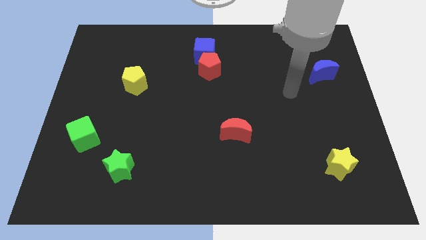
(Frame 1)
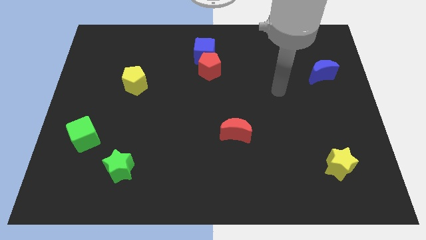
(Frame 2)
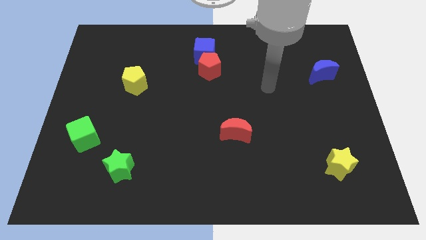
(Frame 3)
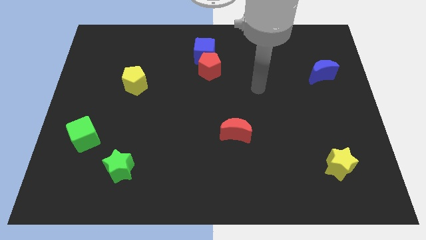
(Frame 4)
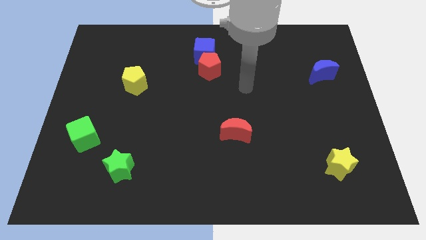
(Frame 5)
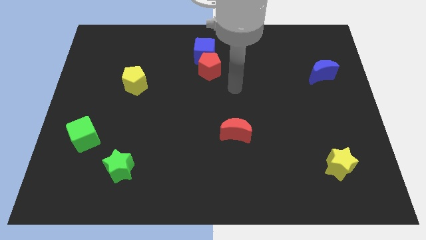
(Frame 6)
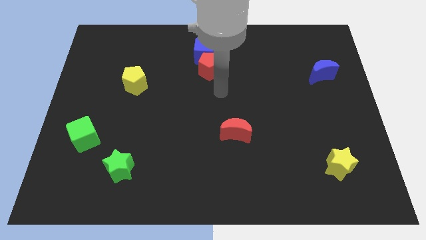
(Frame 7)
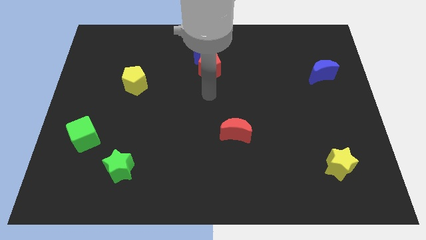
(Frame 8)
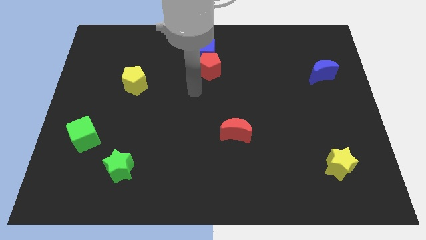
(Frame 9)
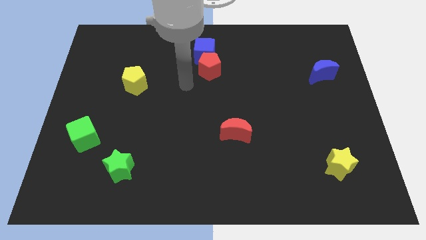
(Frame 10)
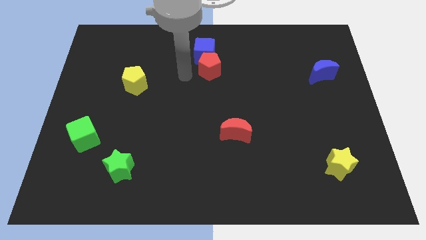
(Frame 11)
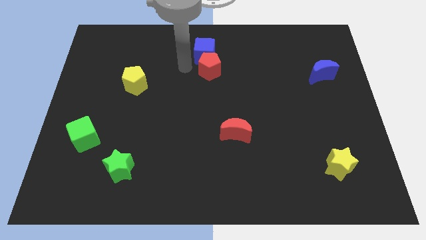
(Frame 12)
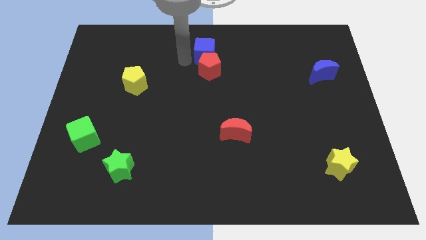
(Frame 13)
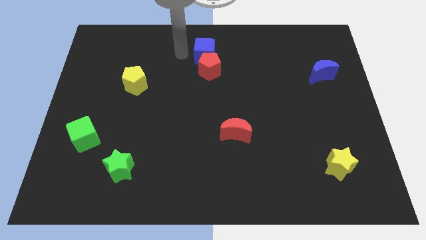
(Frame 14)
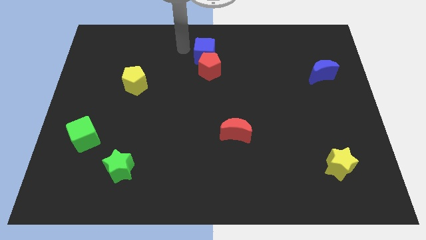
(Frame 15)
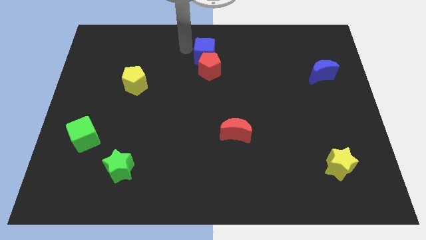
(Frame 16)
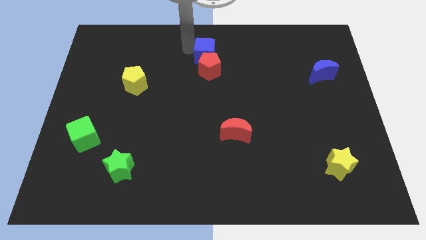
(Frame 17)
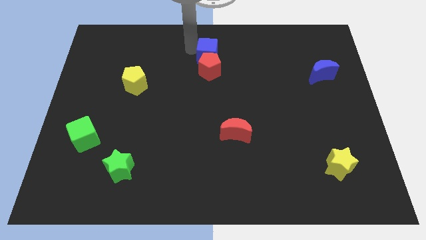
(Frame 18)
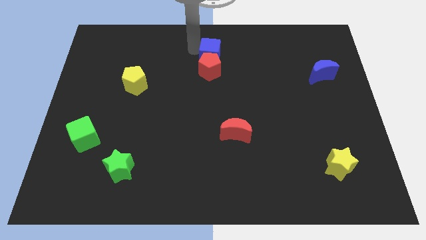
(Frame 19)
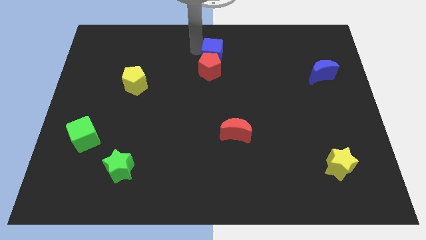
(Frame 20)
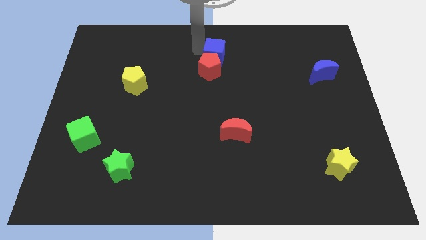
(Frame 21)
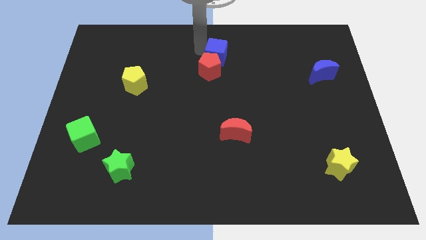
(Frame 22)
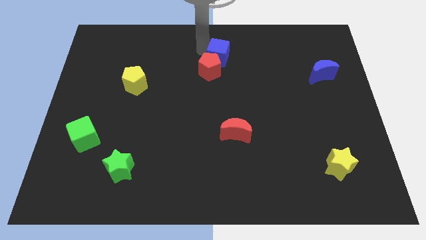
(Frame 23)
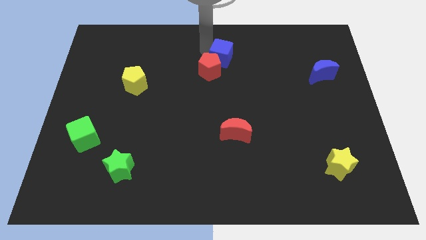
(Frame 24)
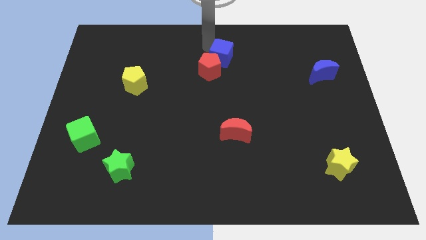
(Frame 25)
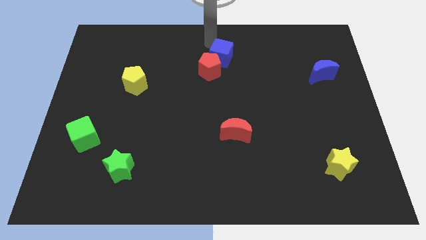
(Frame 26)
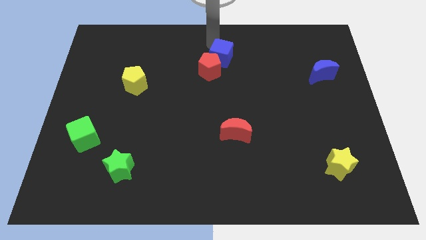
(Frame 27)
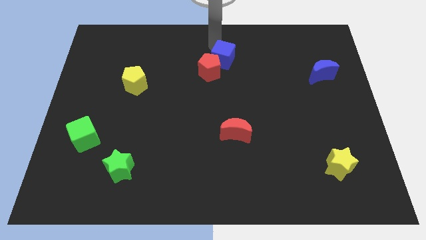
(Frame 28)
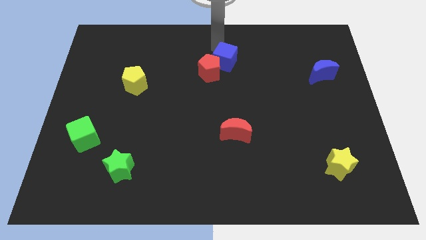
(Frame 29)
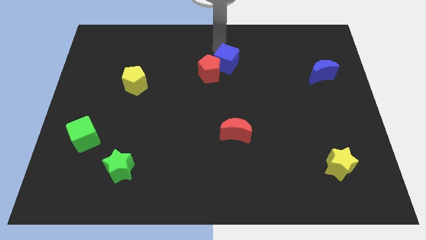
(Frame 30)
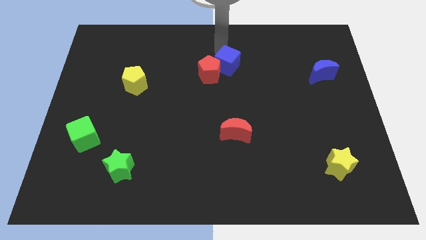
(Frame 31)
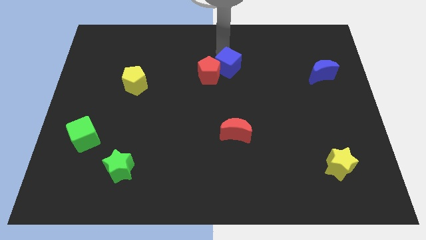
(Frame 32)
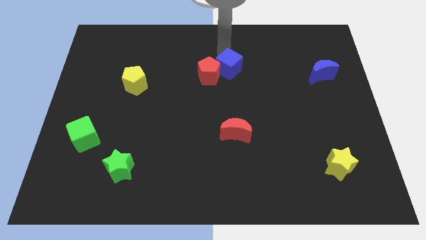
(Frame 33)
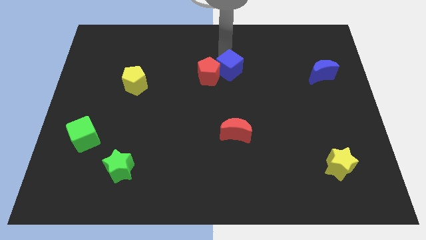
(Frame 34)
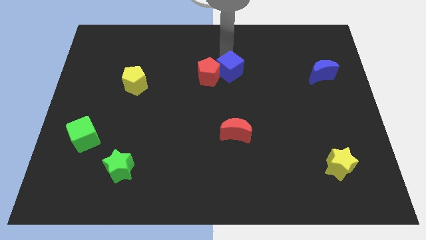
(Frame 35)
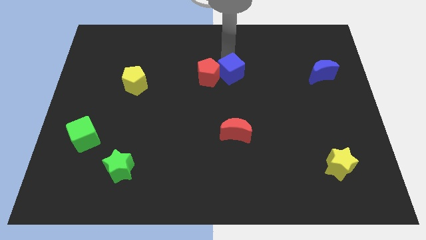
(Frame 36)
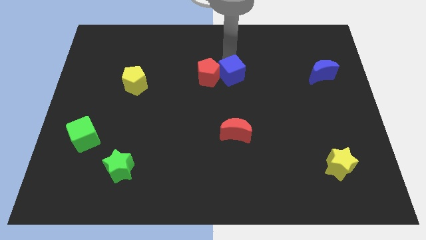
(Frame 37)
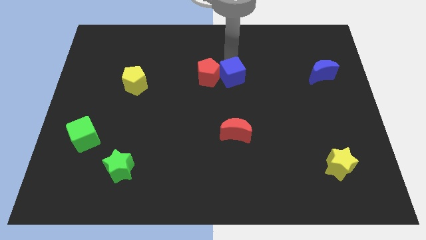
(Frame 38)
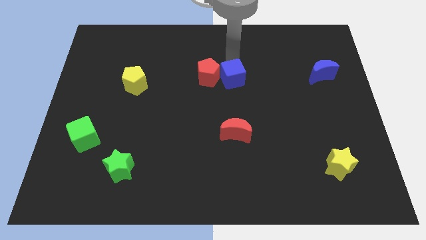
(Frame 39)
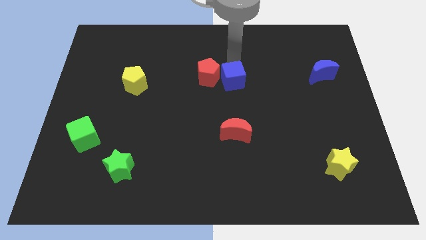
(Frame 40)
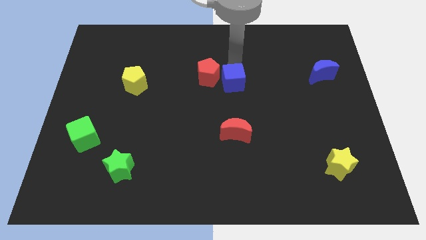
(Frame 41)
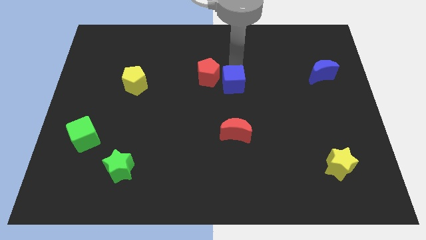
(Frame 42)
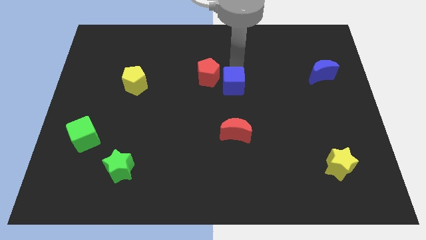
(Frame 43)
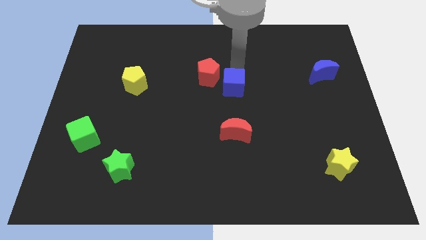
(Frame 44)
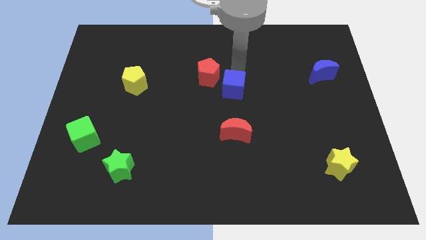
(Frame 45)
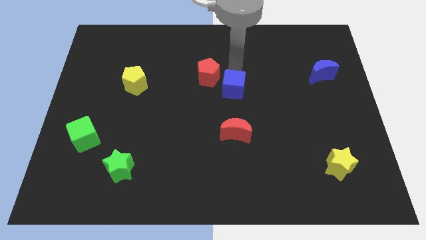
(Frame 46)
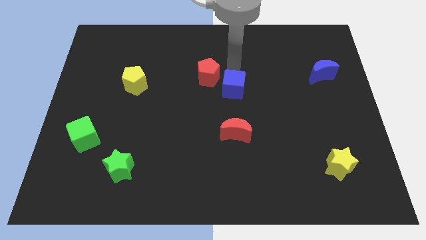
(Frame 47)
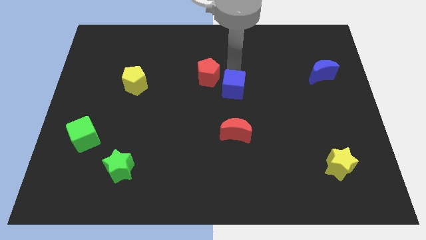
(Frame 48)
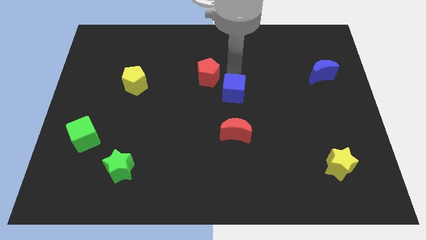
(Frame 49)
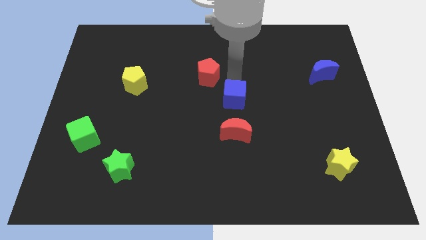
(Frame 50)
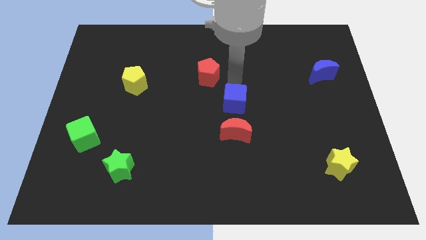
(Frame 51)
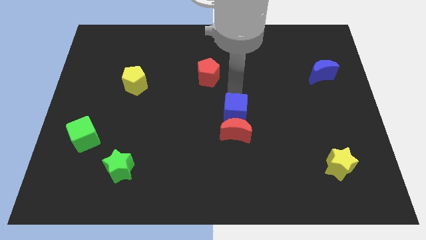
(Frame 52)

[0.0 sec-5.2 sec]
put the blue cube towards the red moon

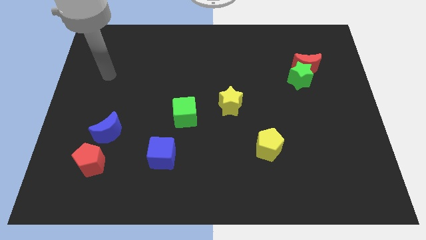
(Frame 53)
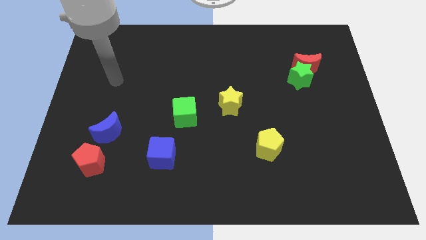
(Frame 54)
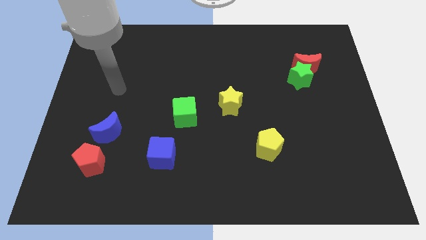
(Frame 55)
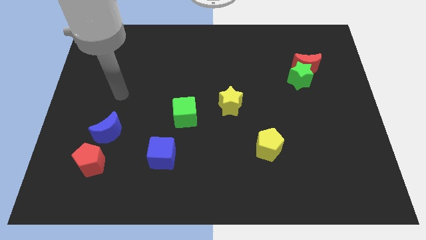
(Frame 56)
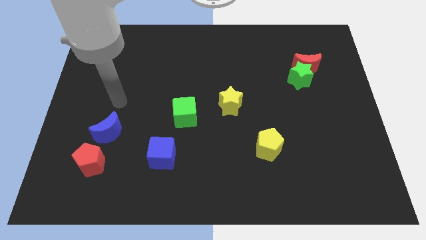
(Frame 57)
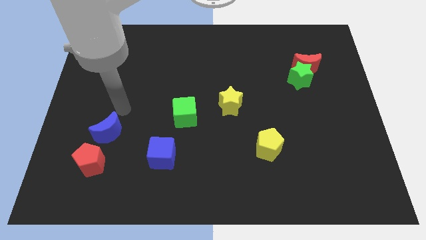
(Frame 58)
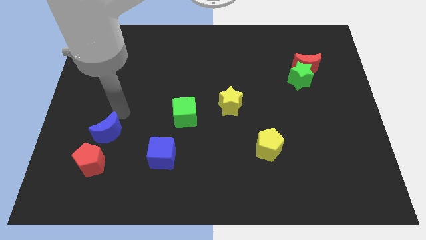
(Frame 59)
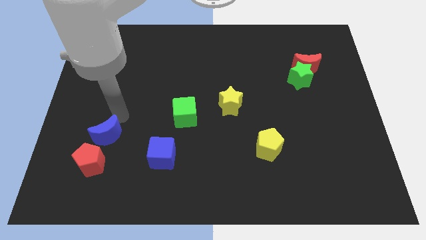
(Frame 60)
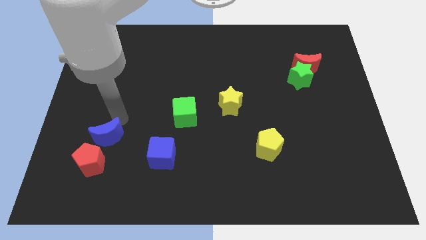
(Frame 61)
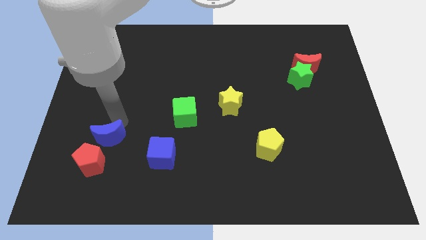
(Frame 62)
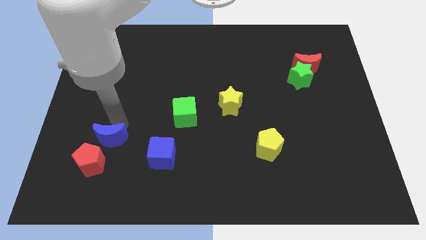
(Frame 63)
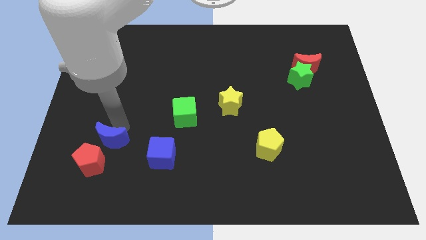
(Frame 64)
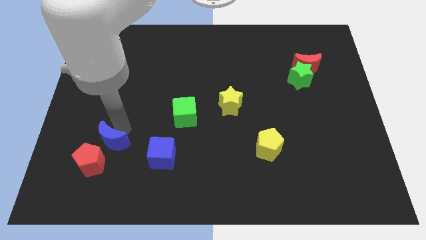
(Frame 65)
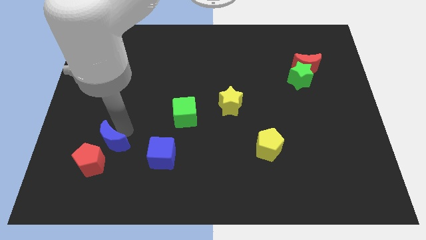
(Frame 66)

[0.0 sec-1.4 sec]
push the blue moon close to the red pentagon

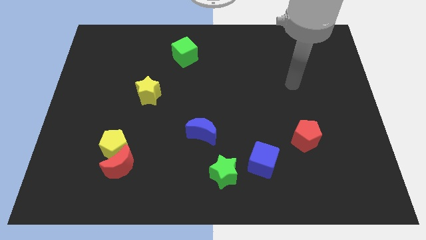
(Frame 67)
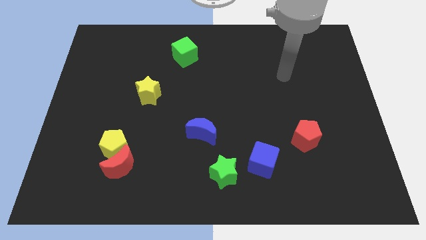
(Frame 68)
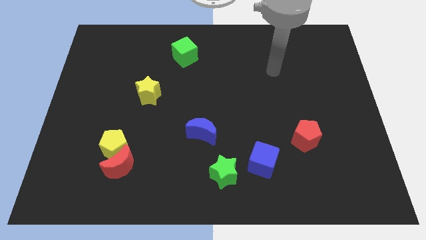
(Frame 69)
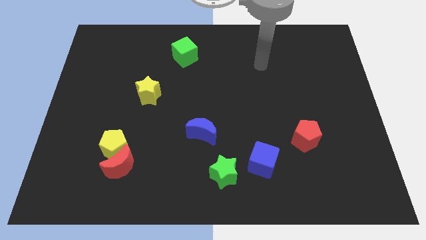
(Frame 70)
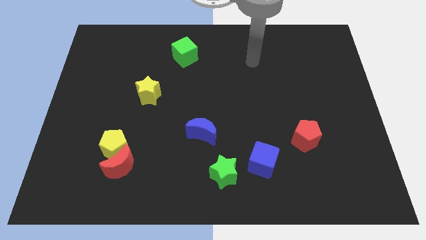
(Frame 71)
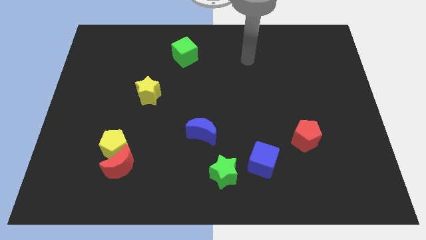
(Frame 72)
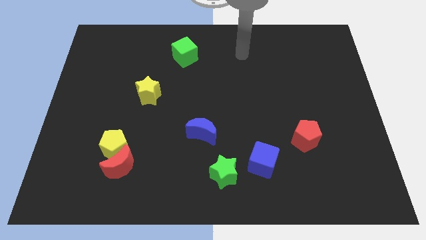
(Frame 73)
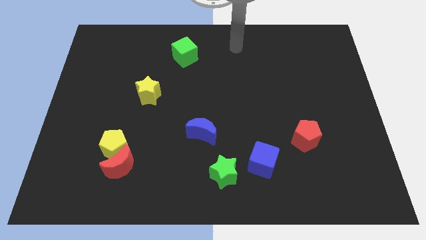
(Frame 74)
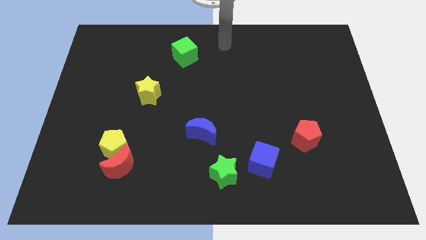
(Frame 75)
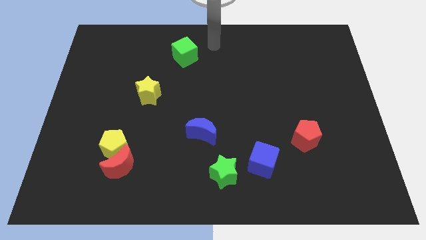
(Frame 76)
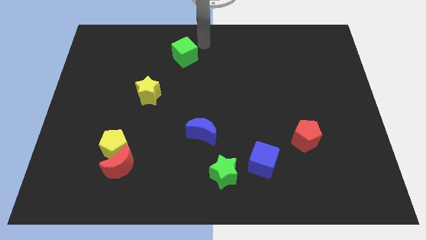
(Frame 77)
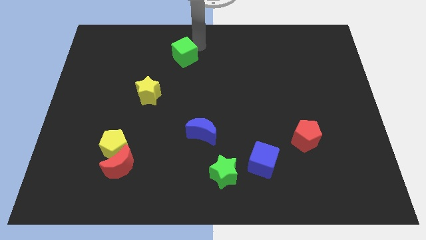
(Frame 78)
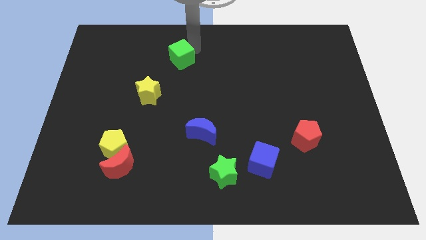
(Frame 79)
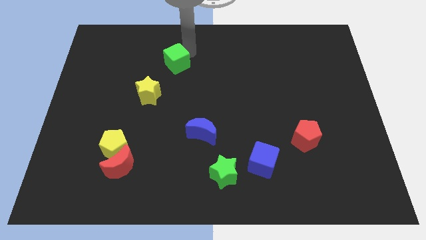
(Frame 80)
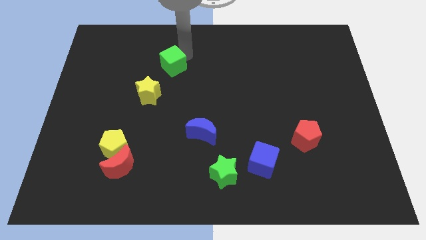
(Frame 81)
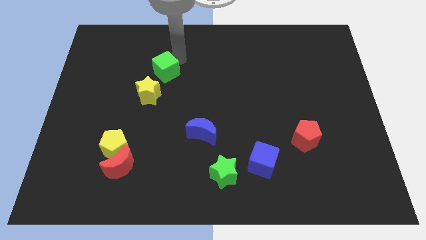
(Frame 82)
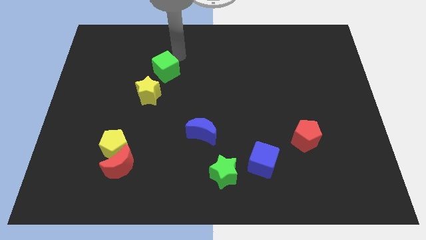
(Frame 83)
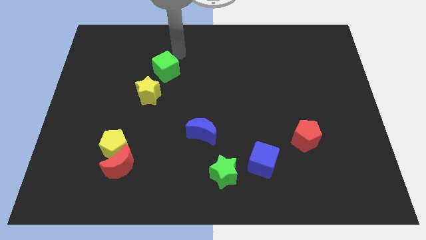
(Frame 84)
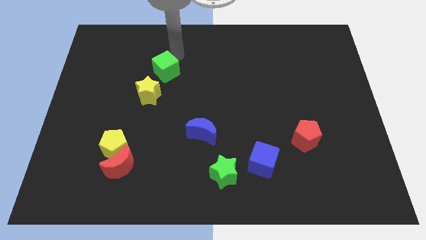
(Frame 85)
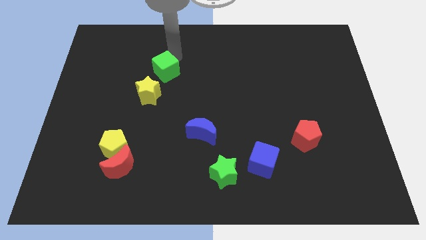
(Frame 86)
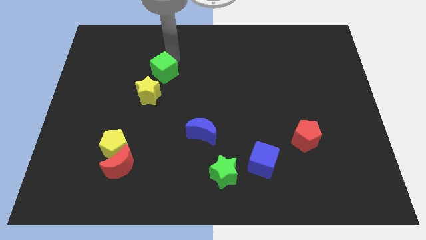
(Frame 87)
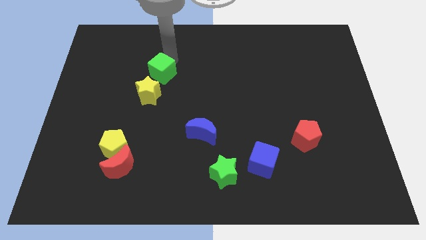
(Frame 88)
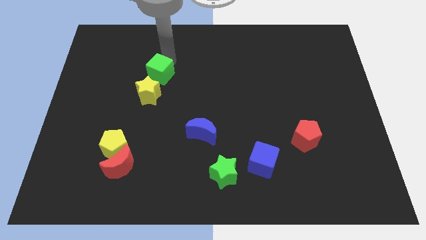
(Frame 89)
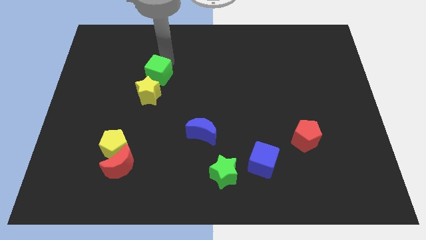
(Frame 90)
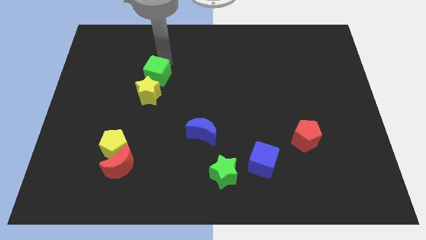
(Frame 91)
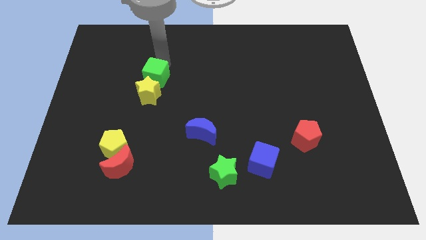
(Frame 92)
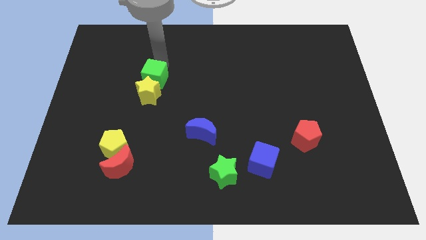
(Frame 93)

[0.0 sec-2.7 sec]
move the green cube towards the yellow star
